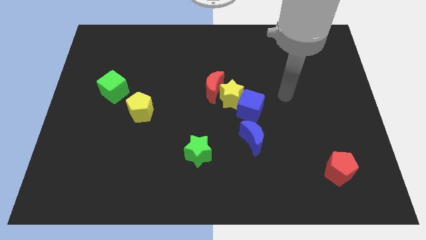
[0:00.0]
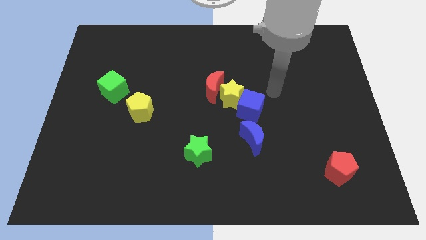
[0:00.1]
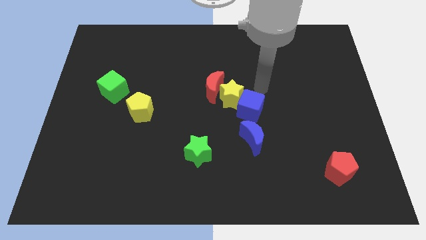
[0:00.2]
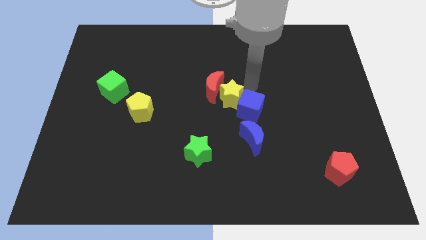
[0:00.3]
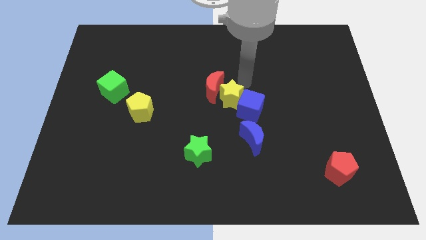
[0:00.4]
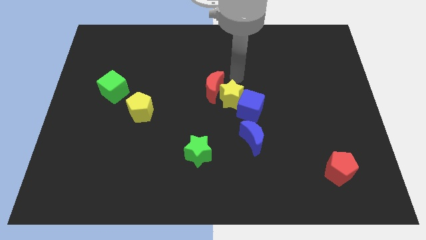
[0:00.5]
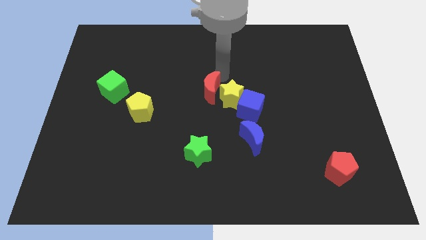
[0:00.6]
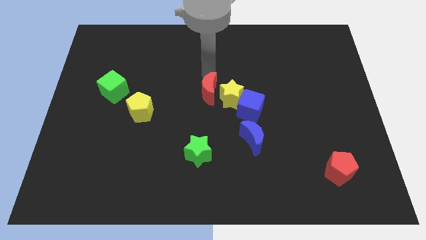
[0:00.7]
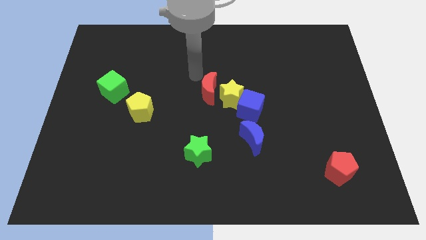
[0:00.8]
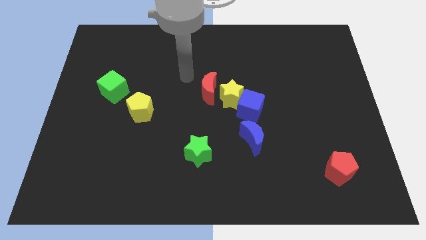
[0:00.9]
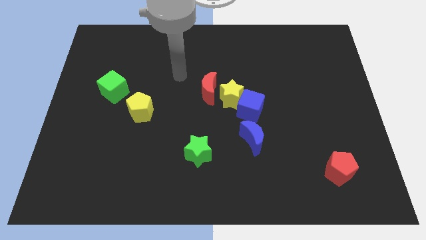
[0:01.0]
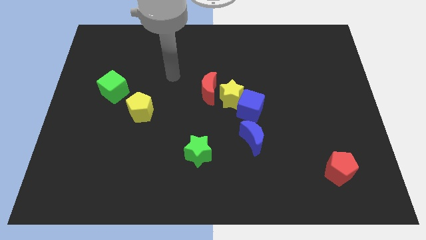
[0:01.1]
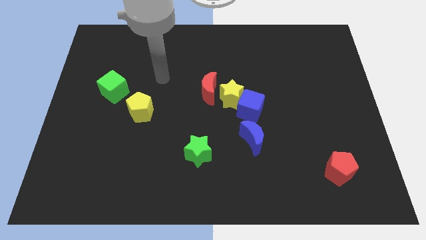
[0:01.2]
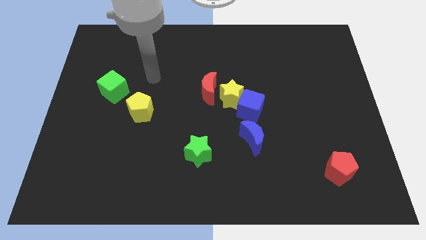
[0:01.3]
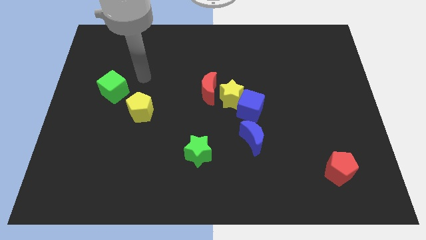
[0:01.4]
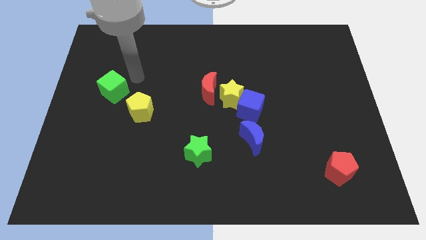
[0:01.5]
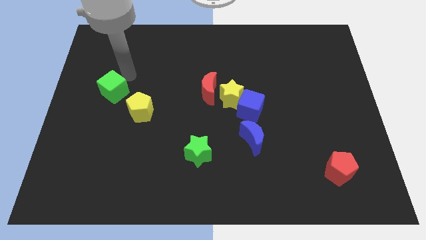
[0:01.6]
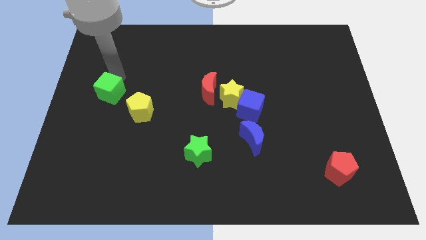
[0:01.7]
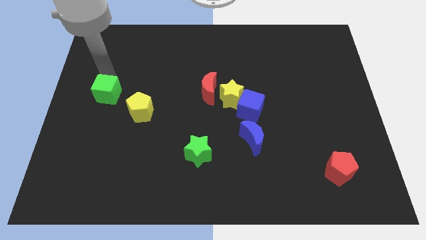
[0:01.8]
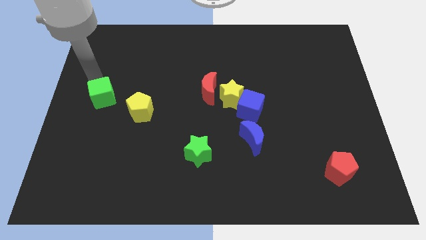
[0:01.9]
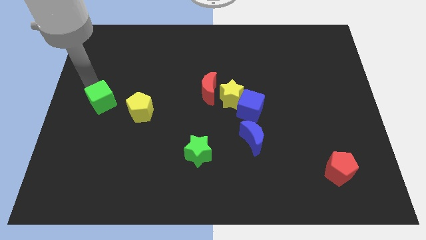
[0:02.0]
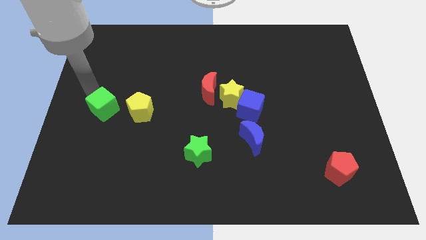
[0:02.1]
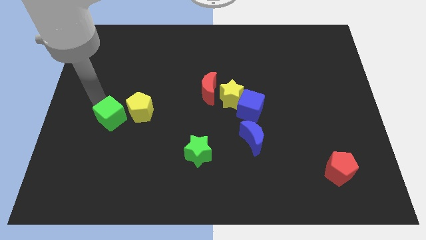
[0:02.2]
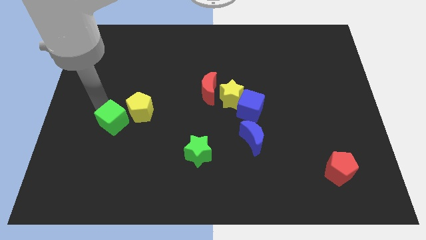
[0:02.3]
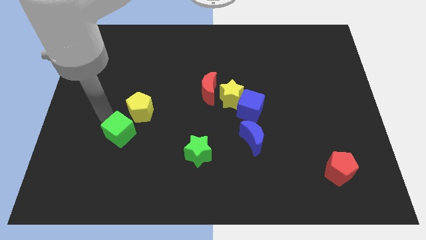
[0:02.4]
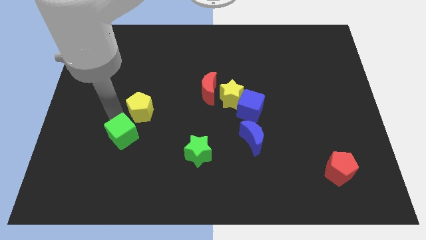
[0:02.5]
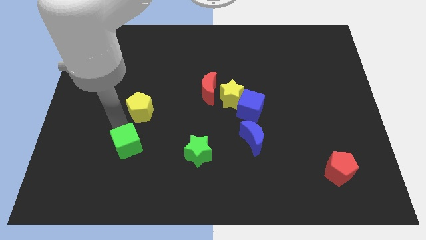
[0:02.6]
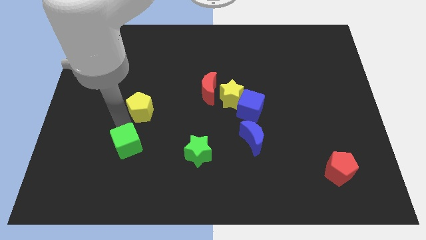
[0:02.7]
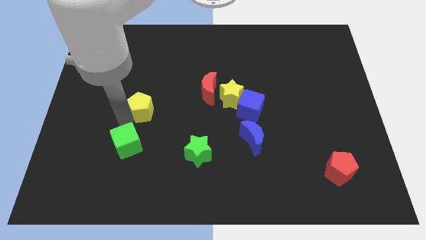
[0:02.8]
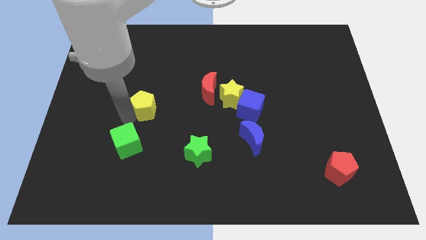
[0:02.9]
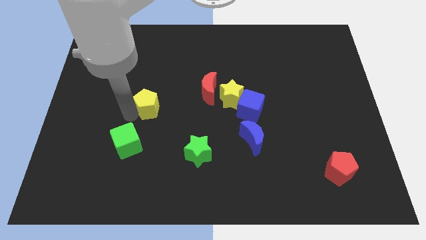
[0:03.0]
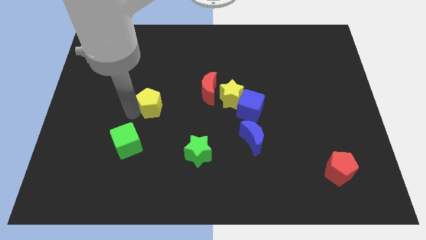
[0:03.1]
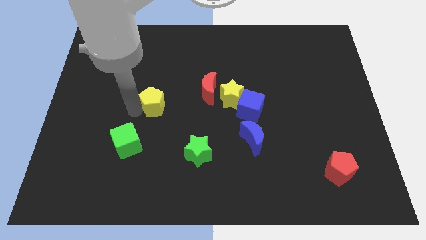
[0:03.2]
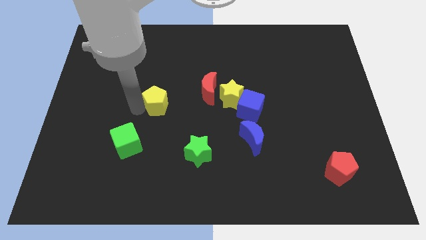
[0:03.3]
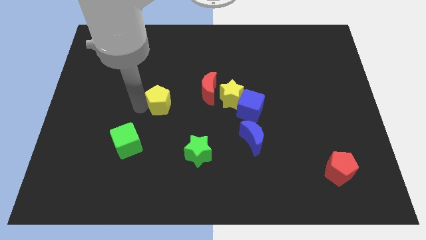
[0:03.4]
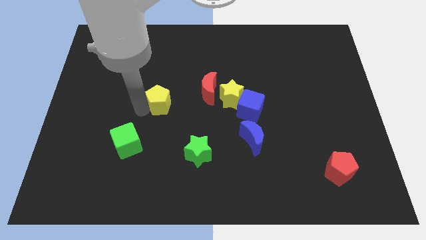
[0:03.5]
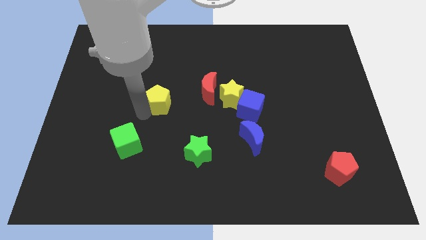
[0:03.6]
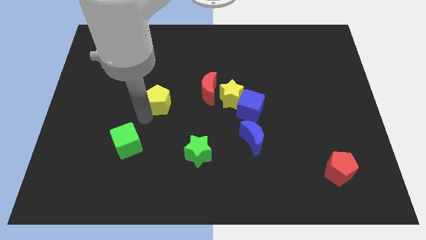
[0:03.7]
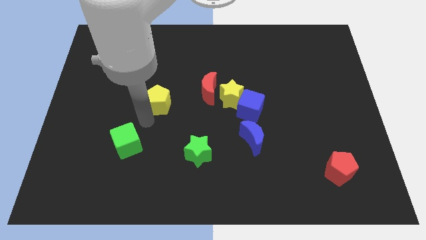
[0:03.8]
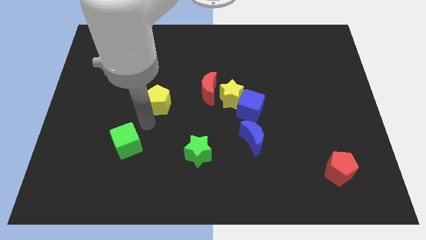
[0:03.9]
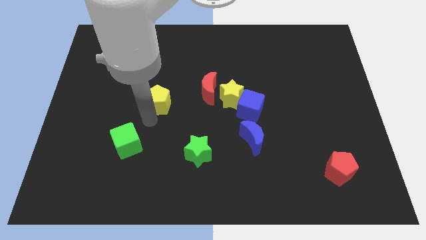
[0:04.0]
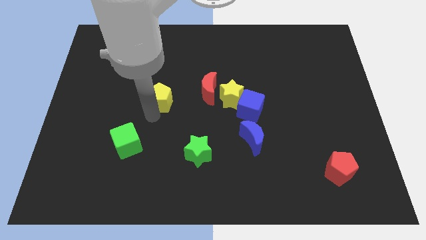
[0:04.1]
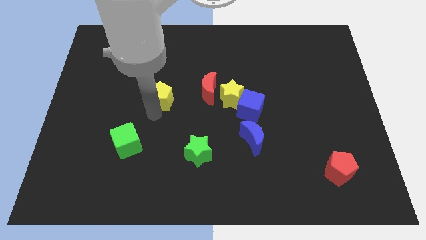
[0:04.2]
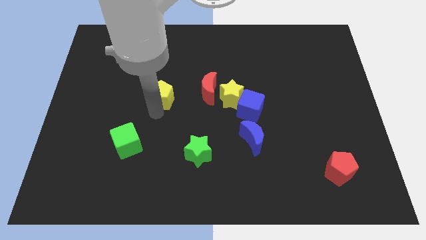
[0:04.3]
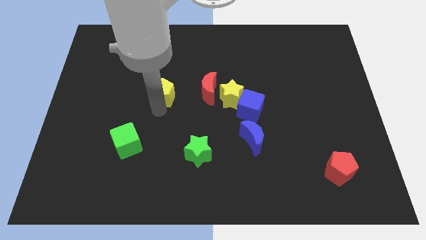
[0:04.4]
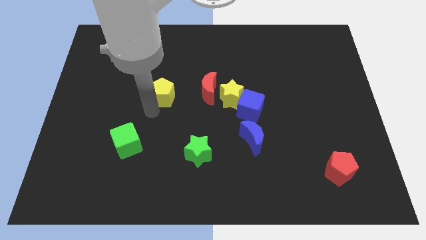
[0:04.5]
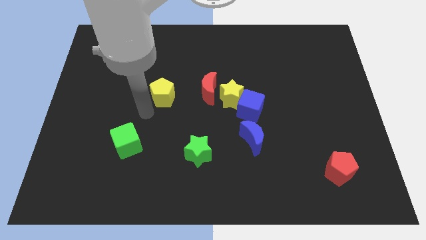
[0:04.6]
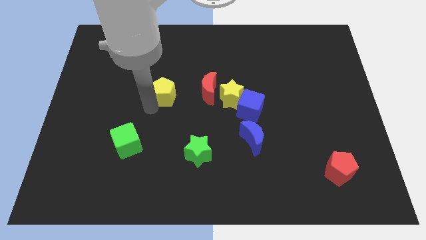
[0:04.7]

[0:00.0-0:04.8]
push the yellow pentagon upwards and right a bit

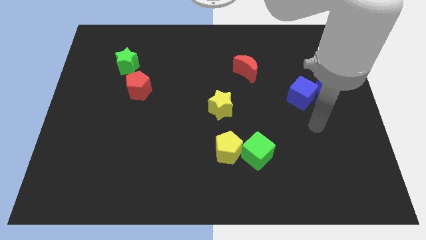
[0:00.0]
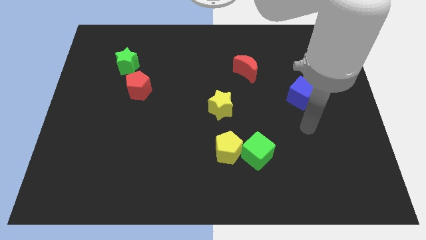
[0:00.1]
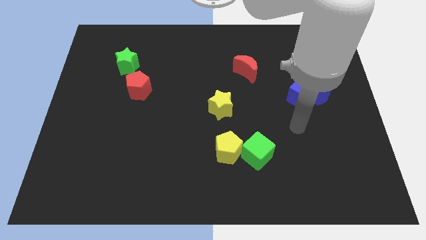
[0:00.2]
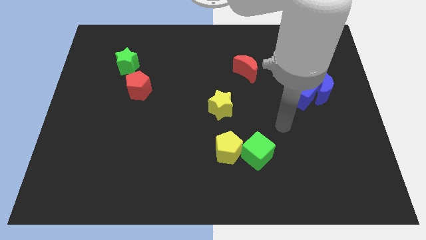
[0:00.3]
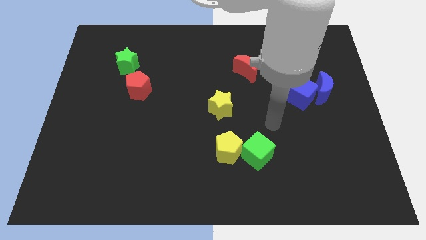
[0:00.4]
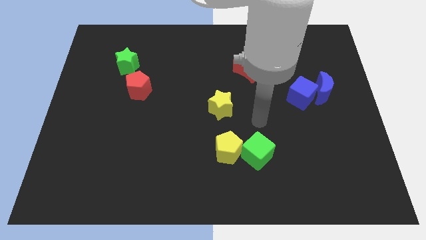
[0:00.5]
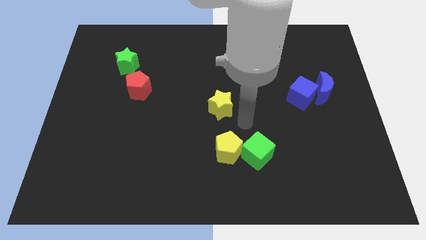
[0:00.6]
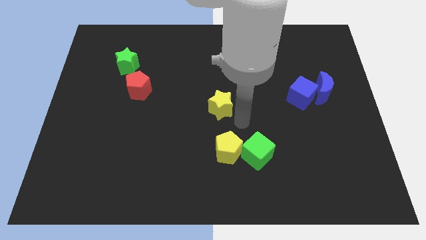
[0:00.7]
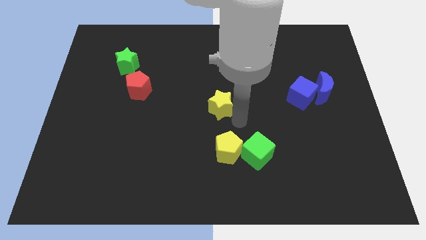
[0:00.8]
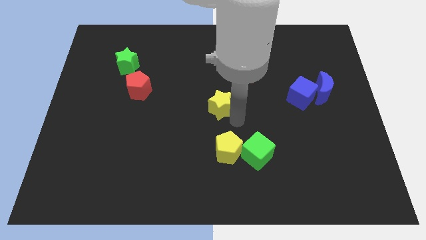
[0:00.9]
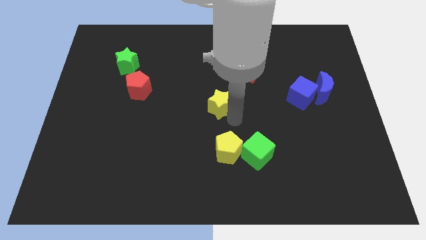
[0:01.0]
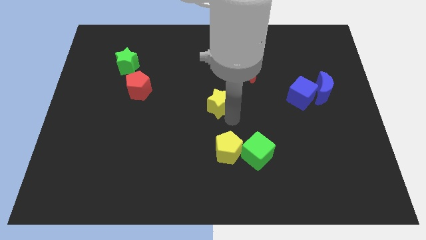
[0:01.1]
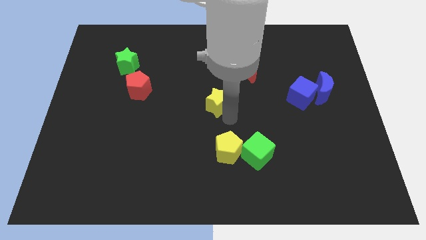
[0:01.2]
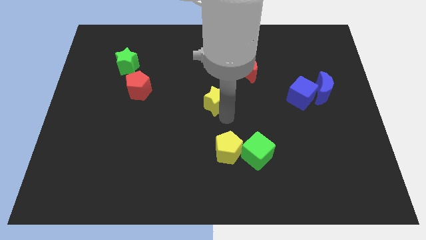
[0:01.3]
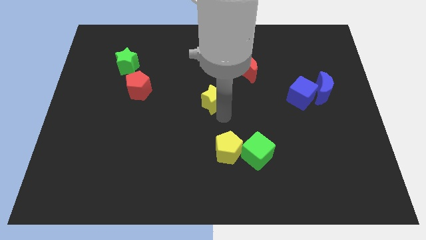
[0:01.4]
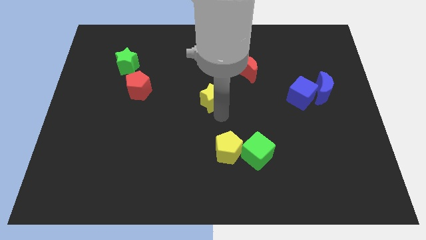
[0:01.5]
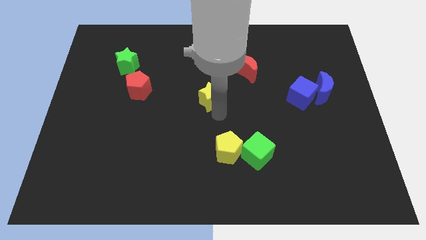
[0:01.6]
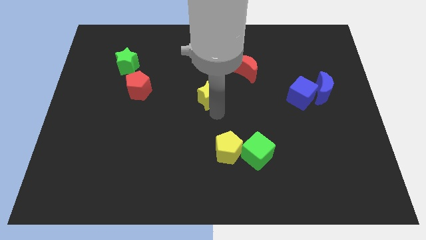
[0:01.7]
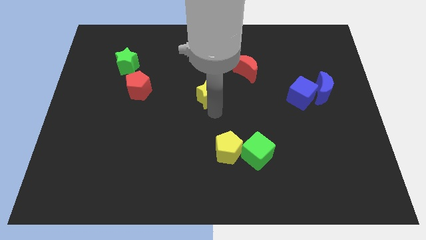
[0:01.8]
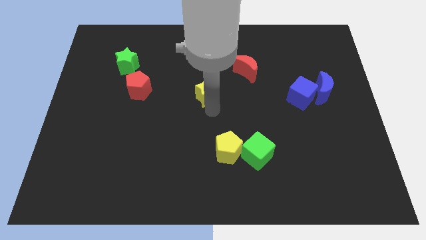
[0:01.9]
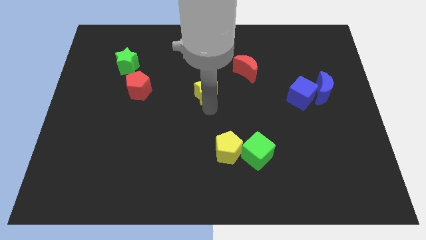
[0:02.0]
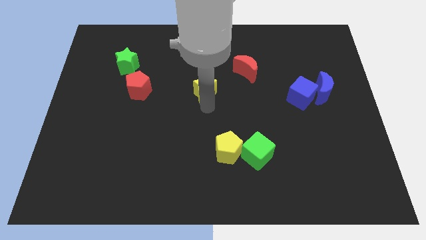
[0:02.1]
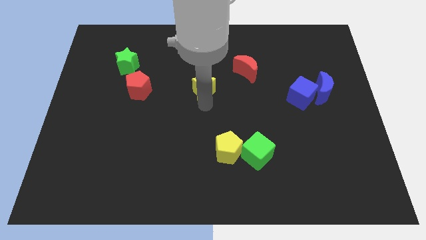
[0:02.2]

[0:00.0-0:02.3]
slightly push the yellow star diagonally upwards and to the left

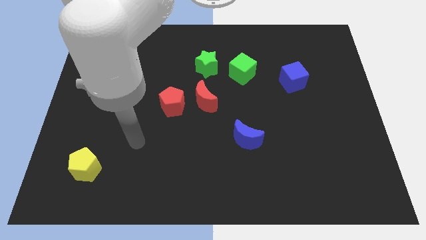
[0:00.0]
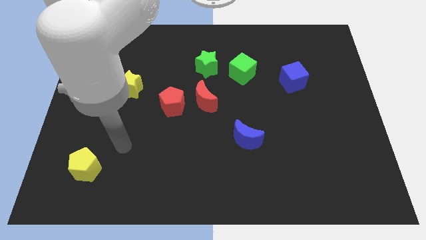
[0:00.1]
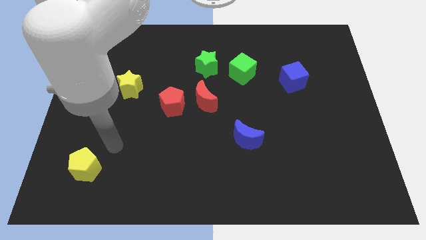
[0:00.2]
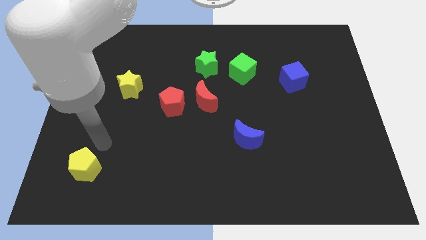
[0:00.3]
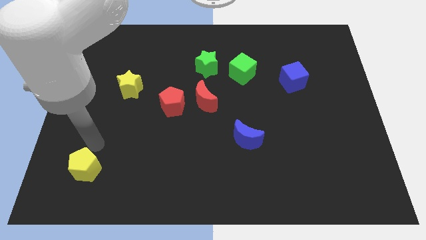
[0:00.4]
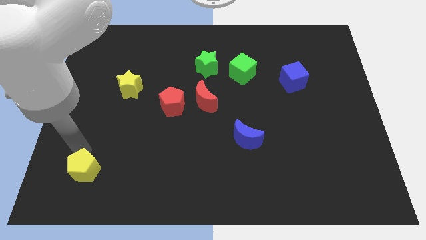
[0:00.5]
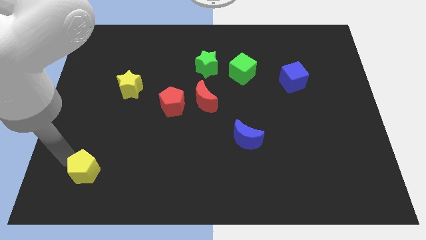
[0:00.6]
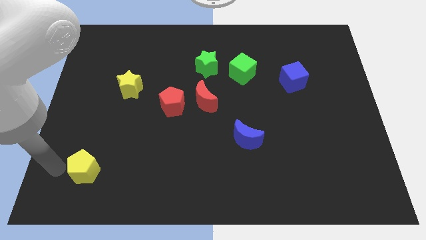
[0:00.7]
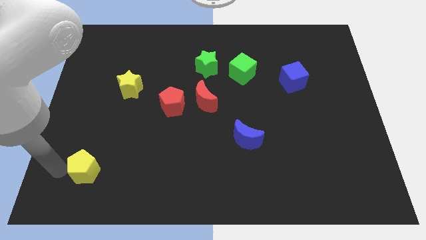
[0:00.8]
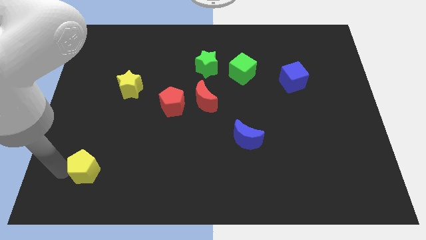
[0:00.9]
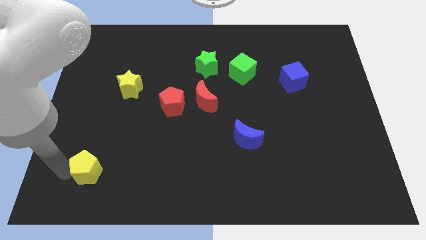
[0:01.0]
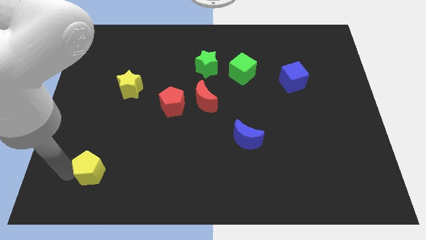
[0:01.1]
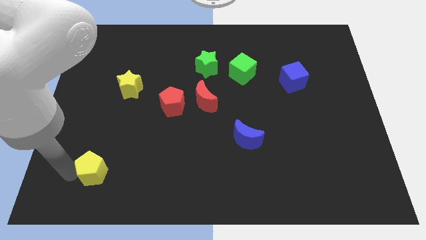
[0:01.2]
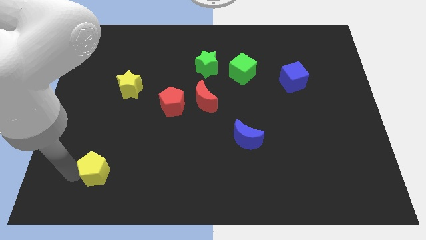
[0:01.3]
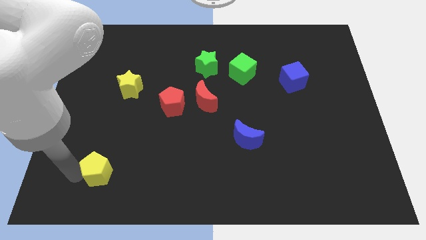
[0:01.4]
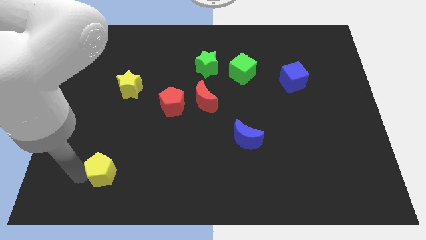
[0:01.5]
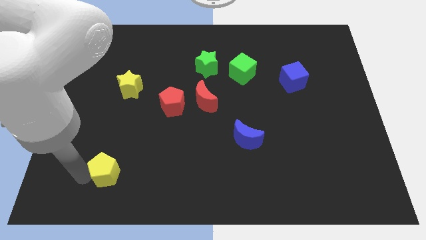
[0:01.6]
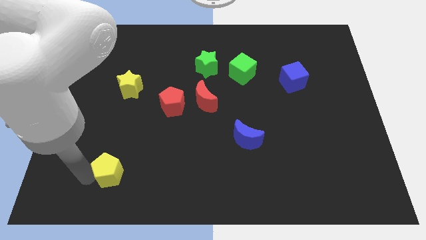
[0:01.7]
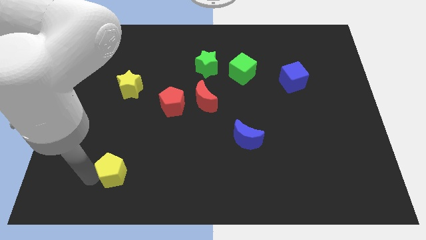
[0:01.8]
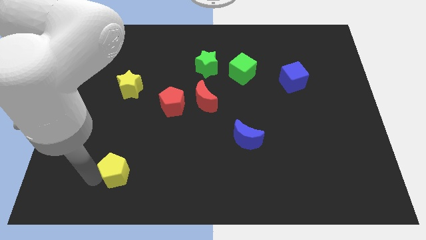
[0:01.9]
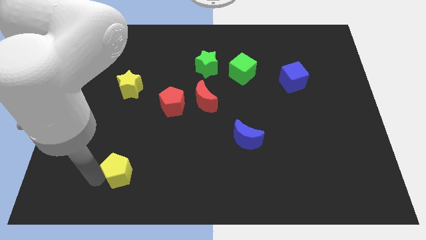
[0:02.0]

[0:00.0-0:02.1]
slightly move the yellow pentagon to the right
